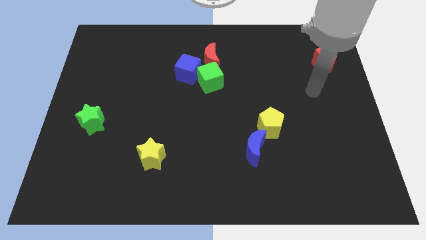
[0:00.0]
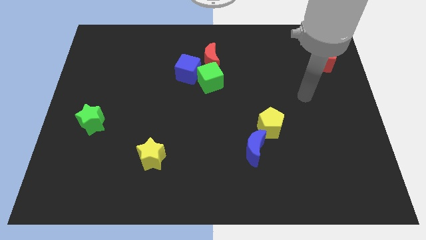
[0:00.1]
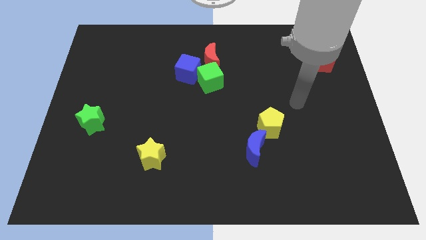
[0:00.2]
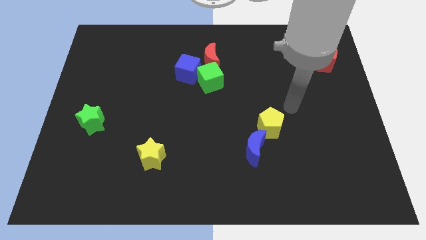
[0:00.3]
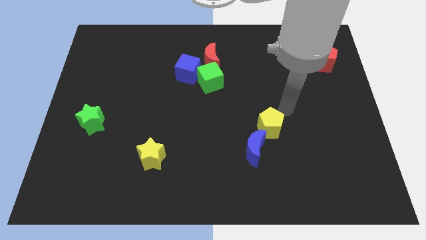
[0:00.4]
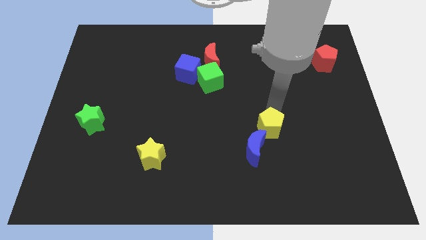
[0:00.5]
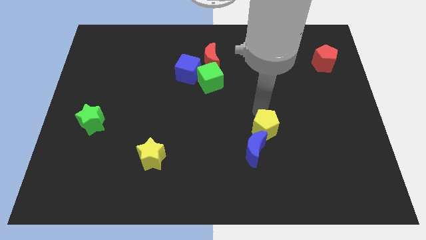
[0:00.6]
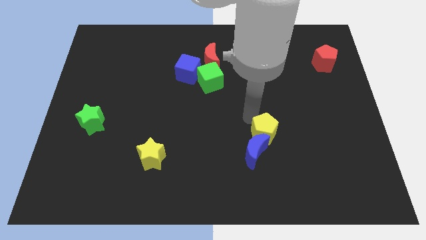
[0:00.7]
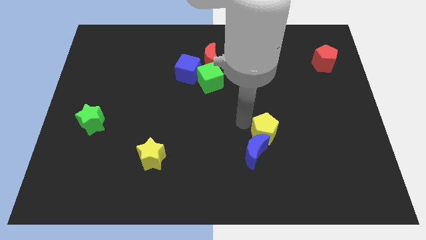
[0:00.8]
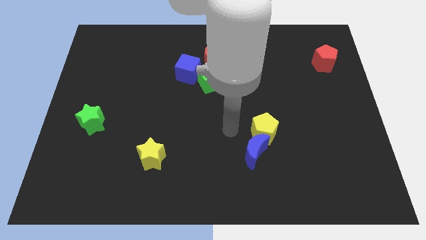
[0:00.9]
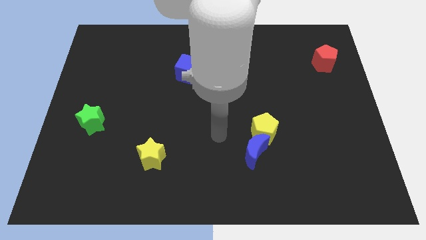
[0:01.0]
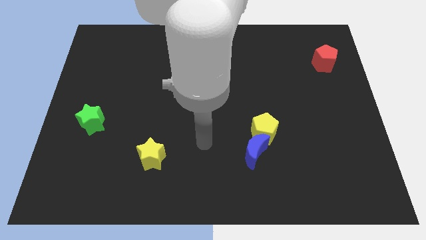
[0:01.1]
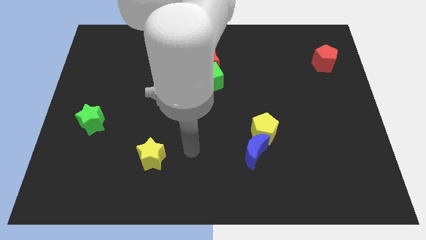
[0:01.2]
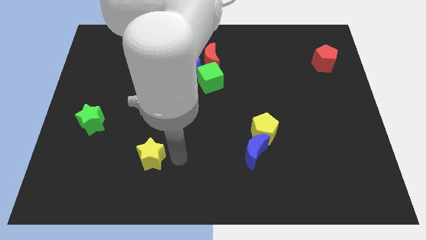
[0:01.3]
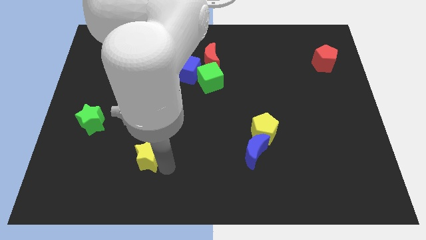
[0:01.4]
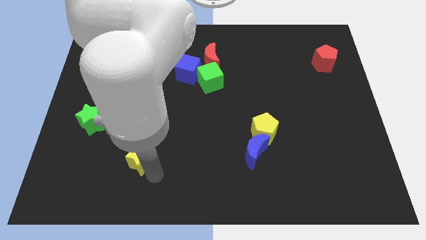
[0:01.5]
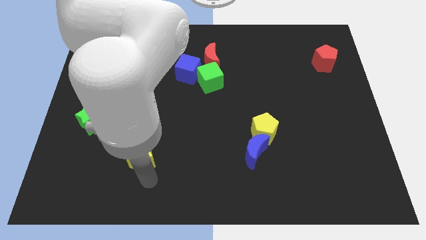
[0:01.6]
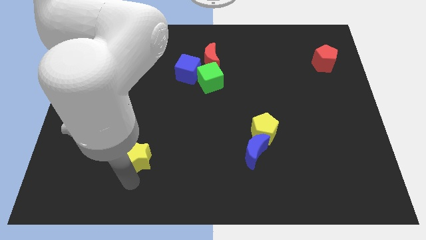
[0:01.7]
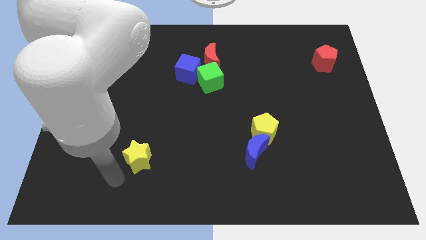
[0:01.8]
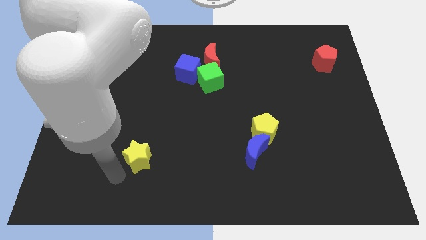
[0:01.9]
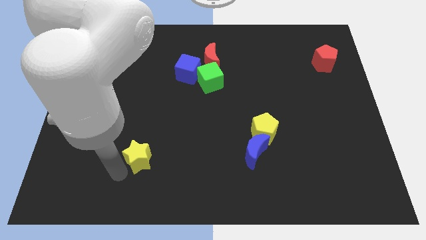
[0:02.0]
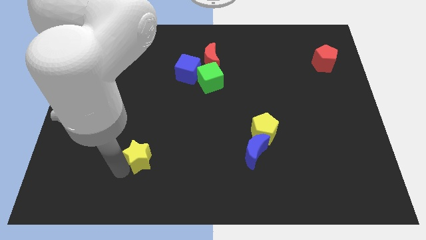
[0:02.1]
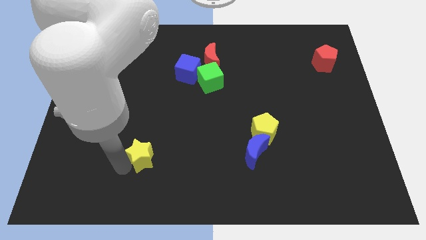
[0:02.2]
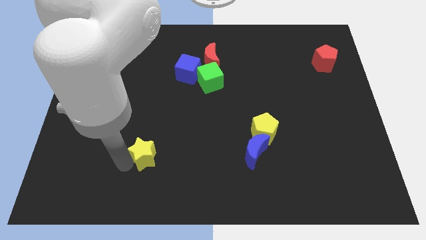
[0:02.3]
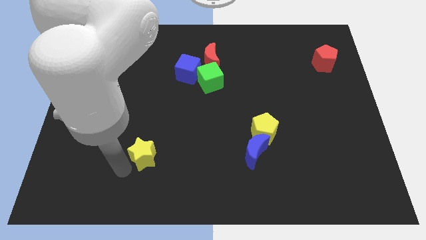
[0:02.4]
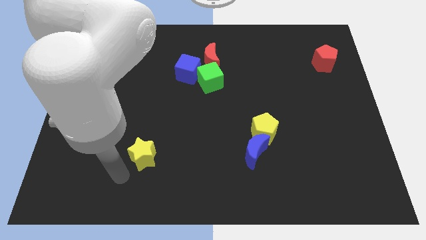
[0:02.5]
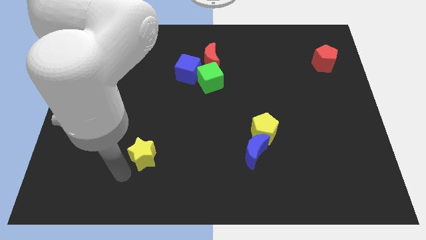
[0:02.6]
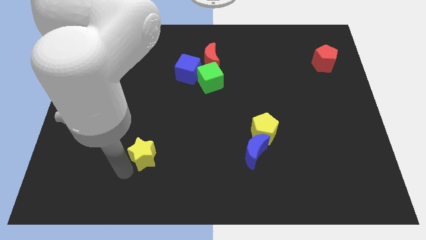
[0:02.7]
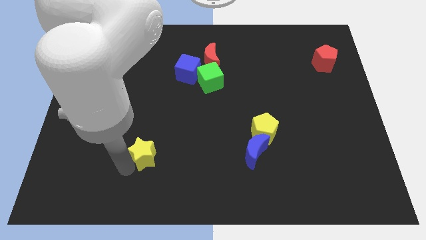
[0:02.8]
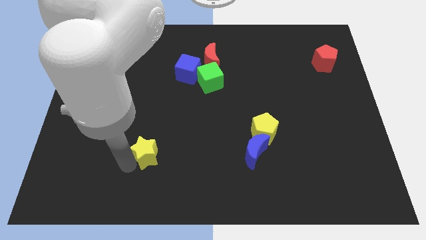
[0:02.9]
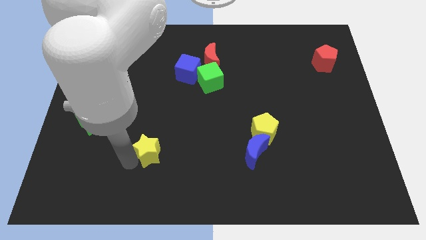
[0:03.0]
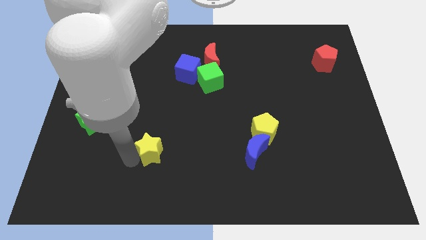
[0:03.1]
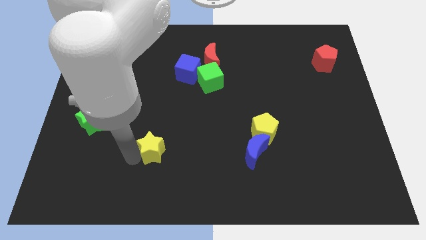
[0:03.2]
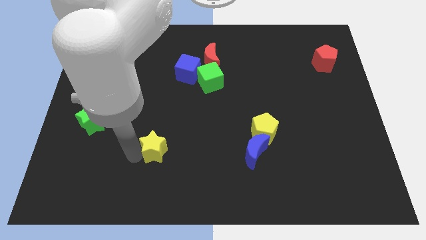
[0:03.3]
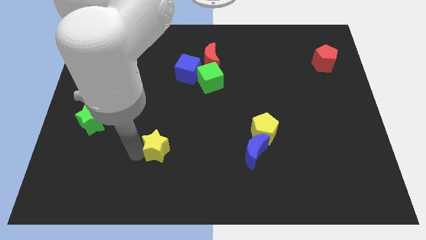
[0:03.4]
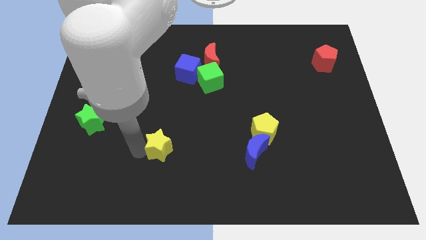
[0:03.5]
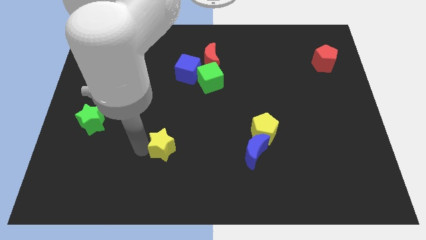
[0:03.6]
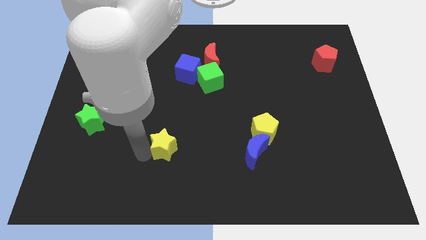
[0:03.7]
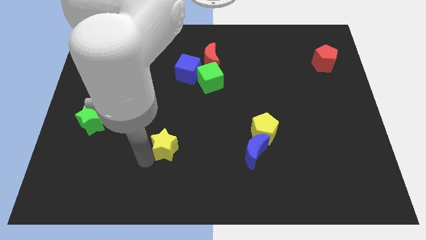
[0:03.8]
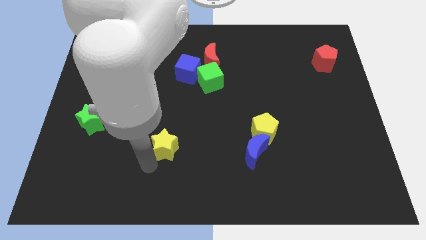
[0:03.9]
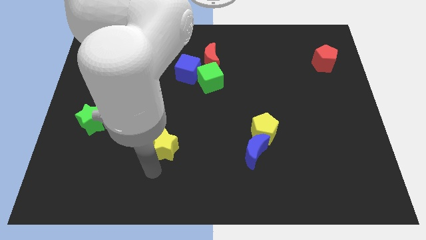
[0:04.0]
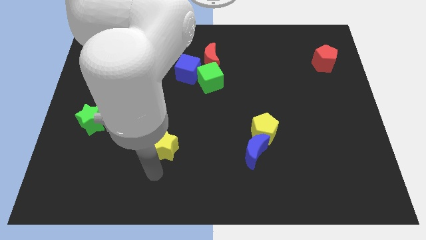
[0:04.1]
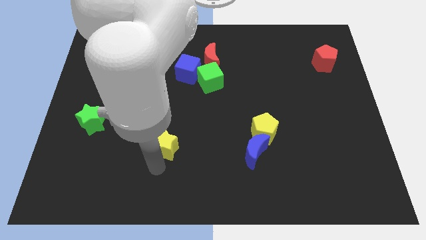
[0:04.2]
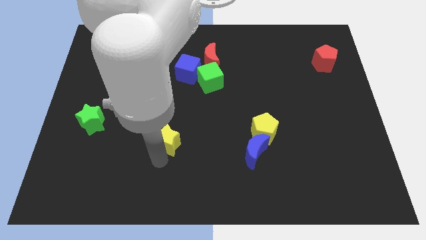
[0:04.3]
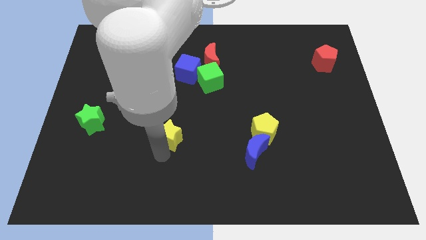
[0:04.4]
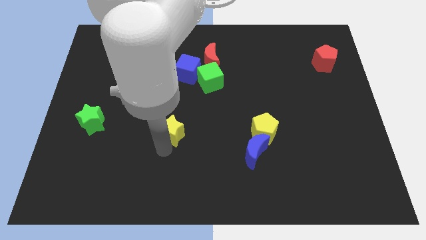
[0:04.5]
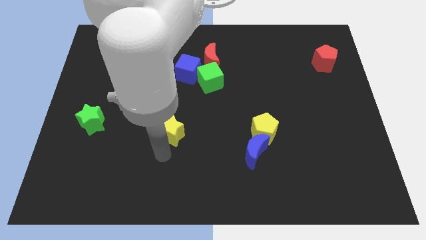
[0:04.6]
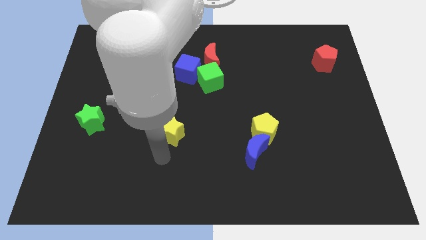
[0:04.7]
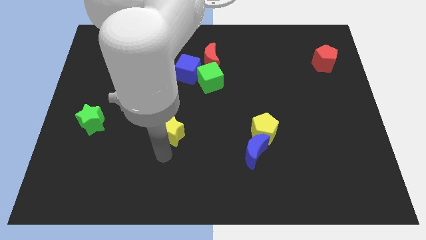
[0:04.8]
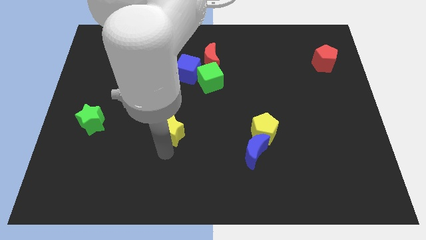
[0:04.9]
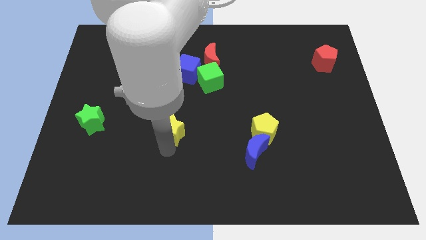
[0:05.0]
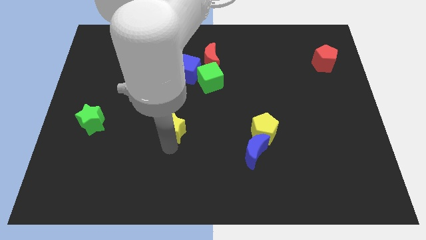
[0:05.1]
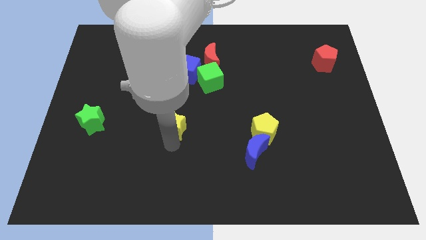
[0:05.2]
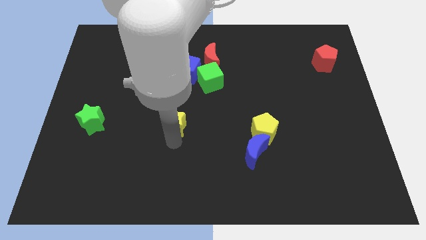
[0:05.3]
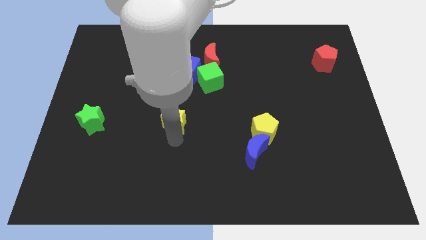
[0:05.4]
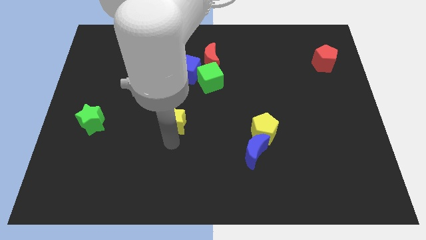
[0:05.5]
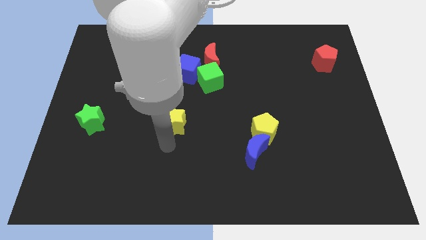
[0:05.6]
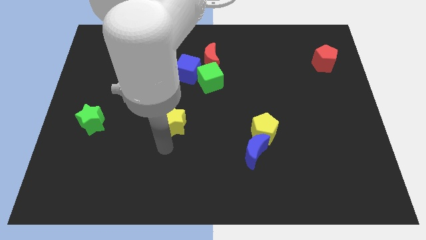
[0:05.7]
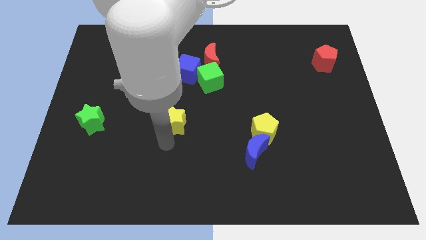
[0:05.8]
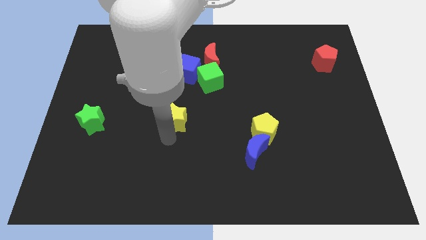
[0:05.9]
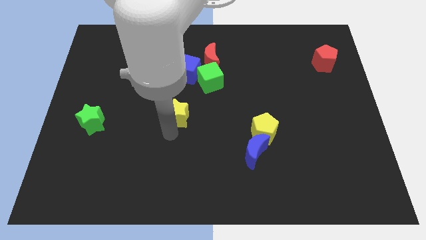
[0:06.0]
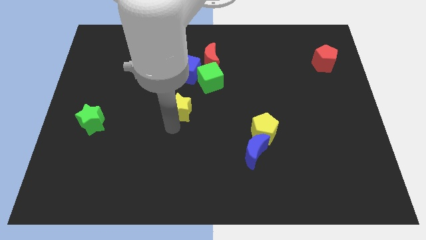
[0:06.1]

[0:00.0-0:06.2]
push the yellow star to the bottom left side of the green cube

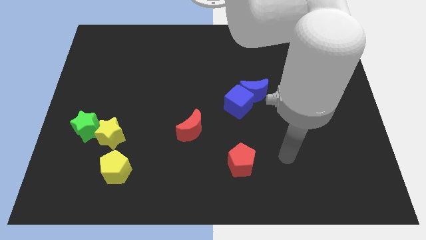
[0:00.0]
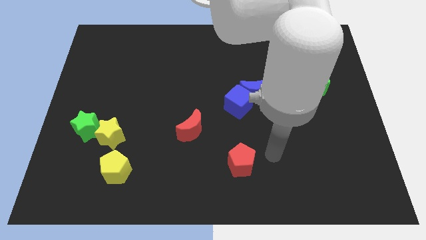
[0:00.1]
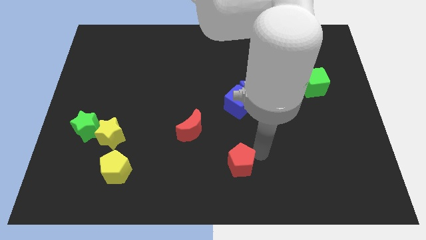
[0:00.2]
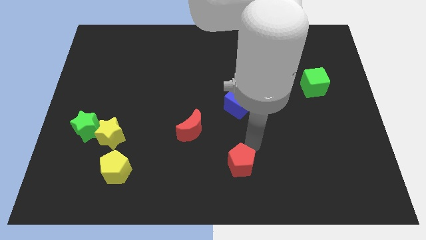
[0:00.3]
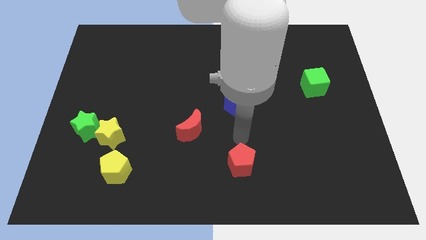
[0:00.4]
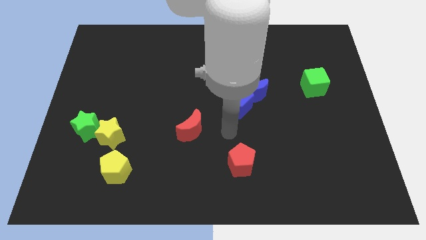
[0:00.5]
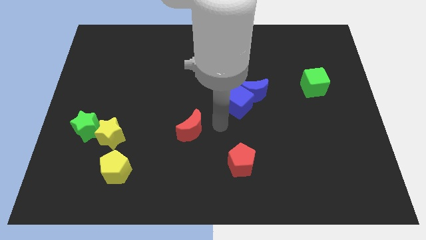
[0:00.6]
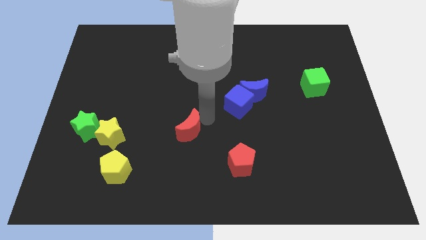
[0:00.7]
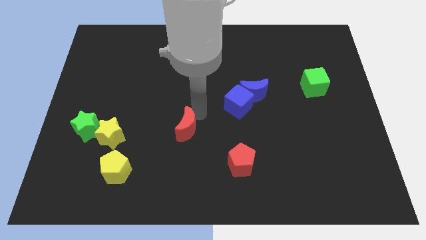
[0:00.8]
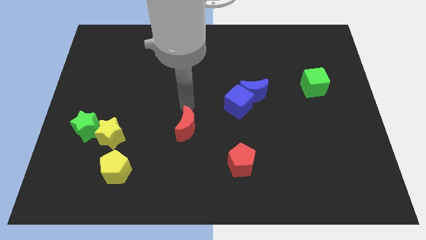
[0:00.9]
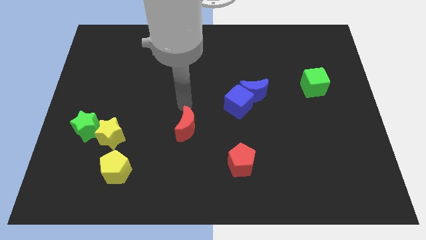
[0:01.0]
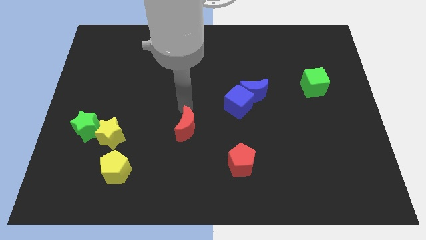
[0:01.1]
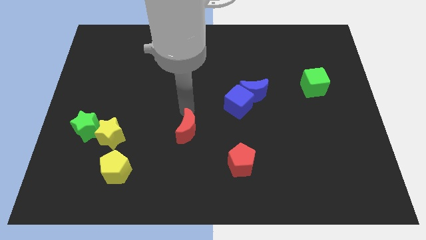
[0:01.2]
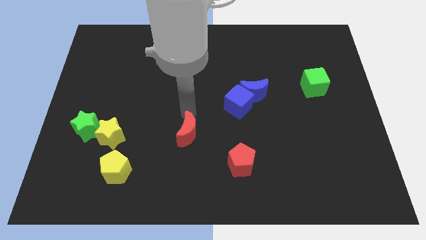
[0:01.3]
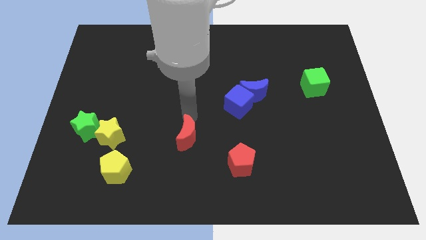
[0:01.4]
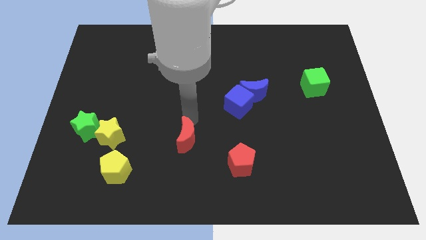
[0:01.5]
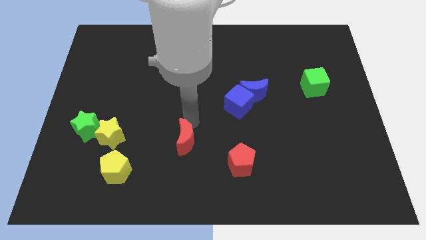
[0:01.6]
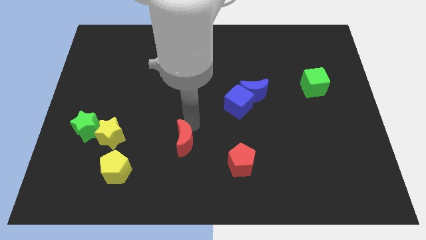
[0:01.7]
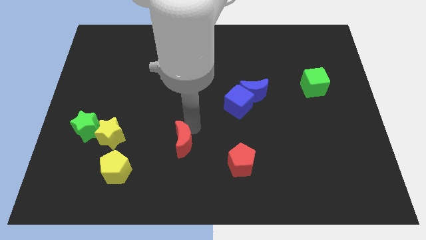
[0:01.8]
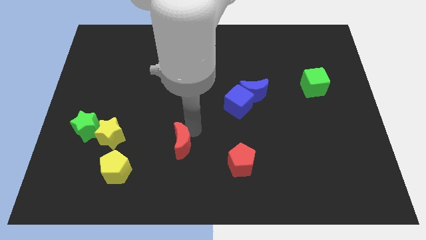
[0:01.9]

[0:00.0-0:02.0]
move the red moon to the left side of the red pentagon
